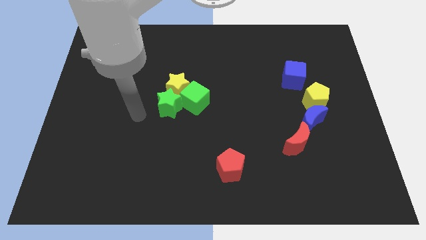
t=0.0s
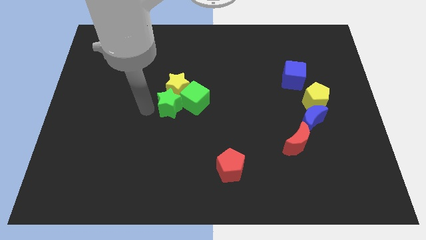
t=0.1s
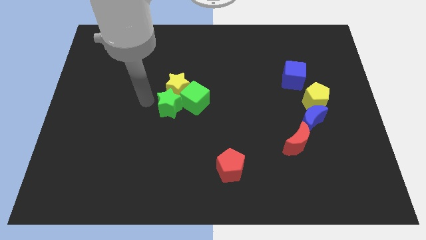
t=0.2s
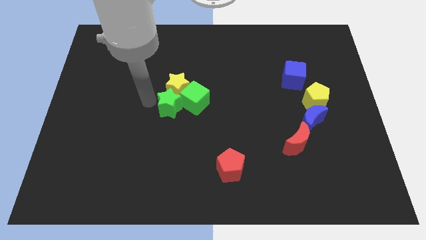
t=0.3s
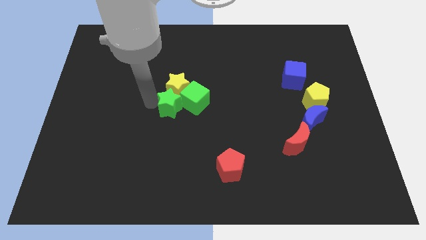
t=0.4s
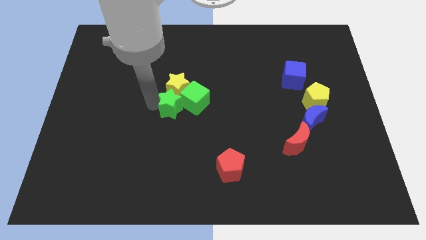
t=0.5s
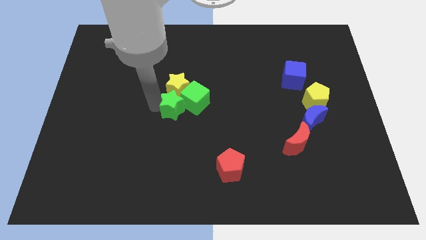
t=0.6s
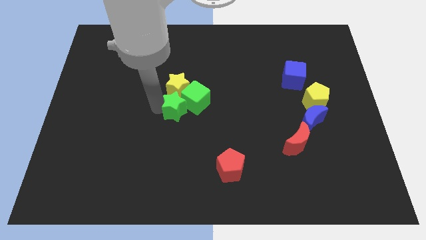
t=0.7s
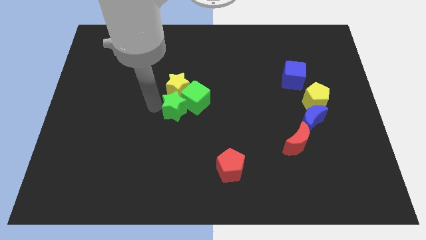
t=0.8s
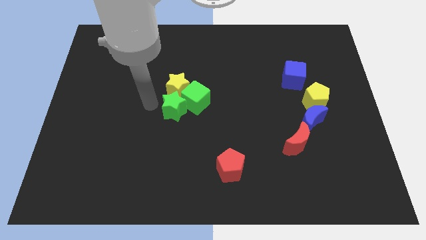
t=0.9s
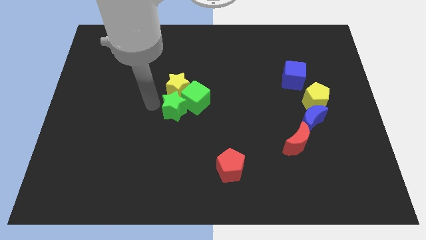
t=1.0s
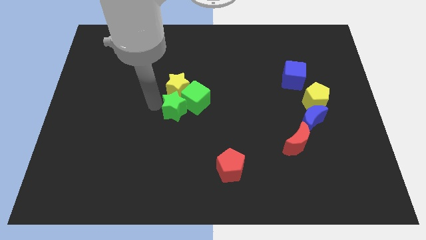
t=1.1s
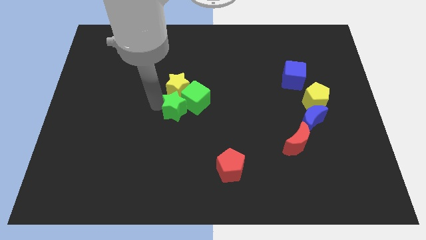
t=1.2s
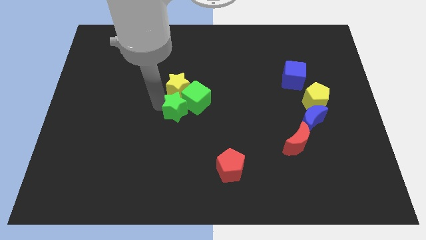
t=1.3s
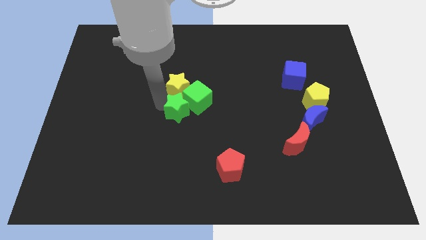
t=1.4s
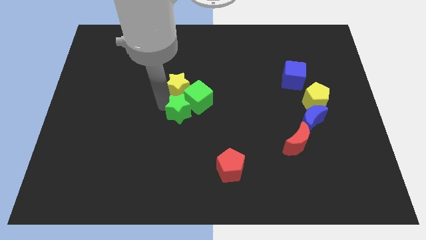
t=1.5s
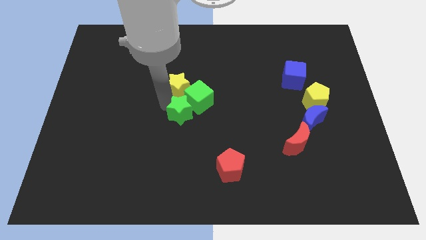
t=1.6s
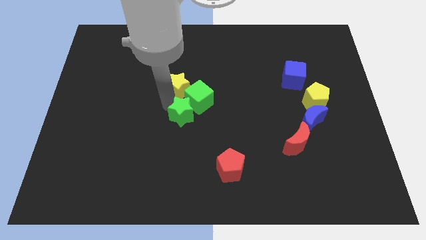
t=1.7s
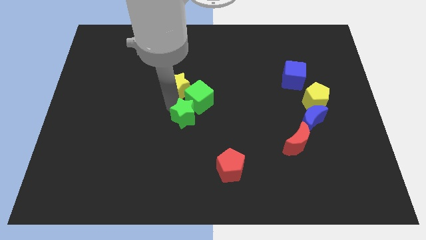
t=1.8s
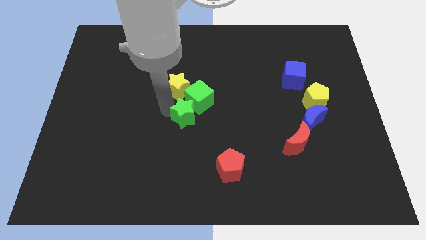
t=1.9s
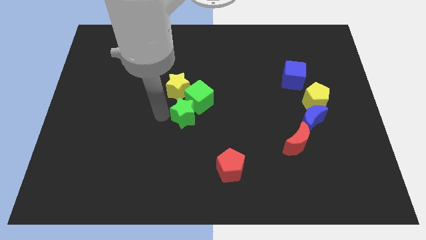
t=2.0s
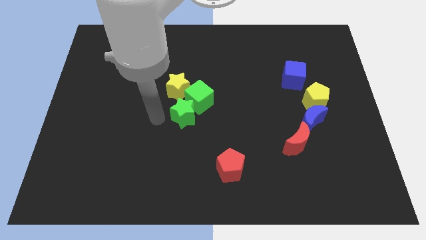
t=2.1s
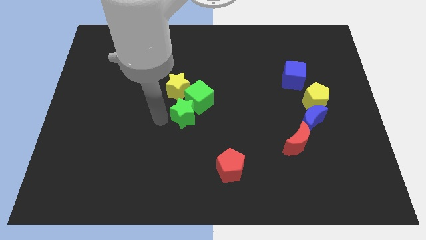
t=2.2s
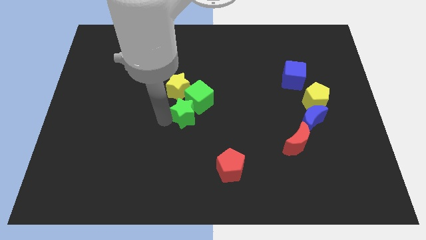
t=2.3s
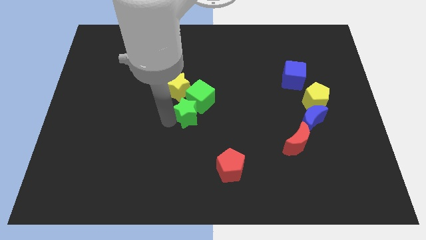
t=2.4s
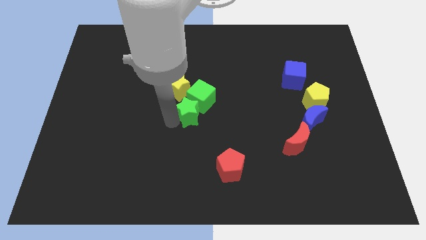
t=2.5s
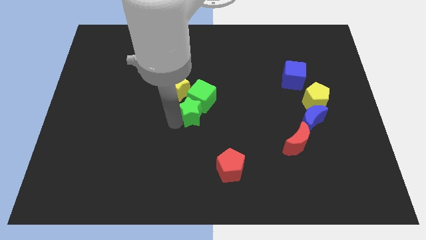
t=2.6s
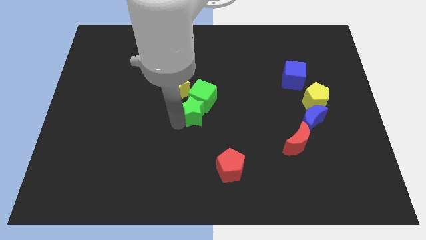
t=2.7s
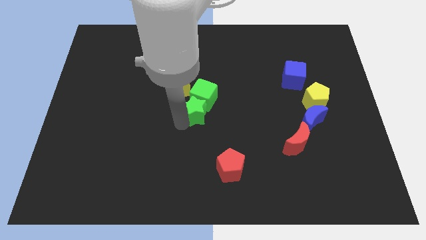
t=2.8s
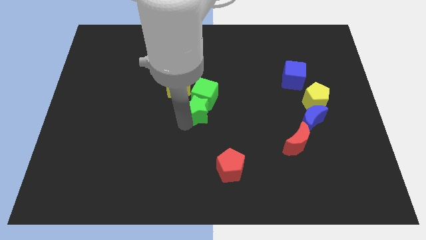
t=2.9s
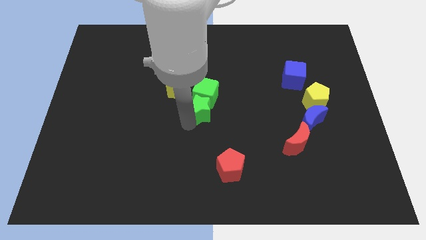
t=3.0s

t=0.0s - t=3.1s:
slightly slide the green star to the right

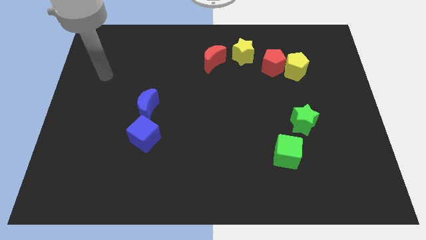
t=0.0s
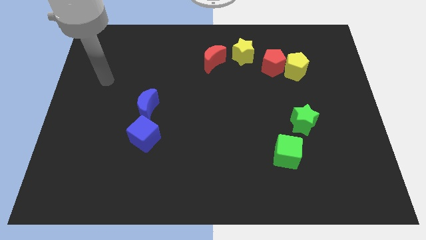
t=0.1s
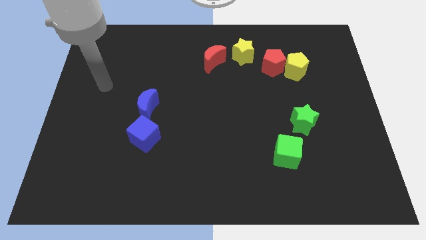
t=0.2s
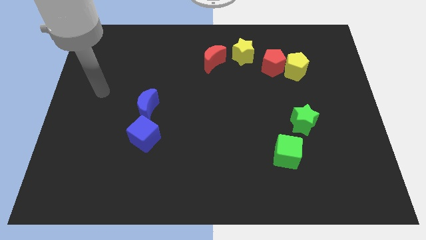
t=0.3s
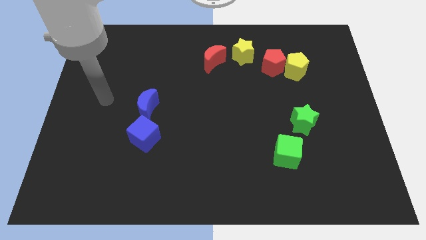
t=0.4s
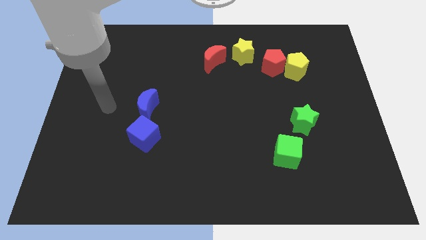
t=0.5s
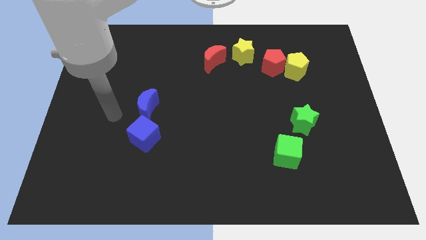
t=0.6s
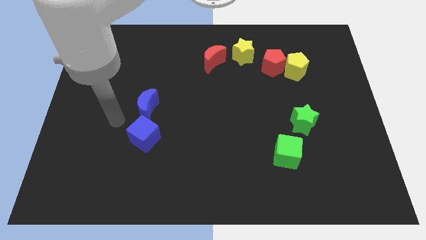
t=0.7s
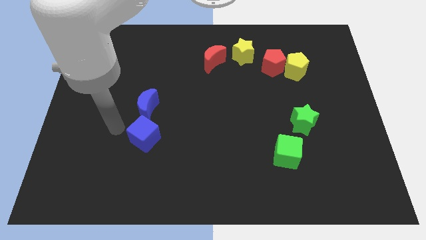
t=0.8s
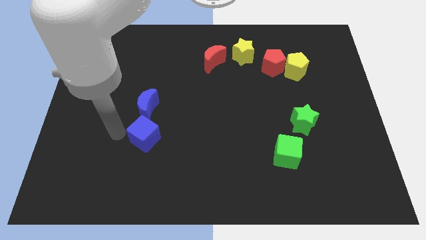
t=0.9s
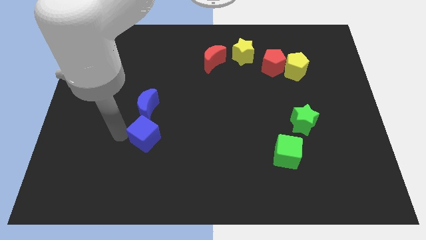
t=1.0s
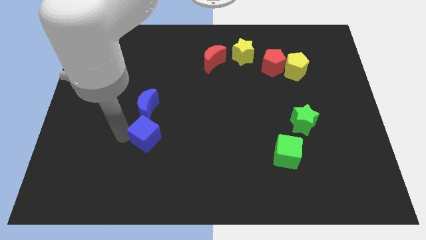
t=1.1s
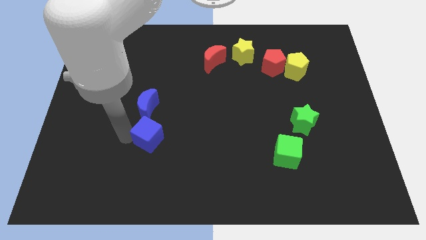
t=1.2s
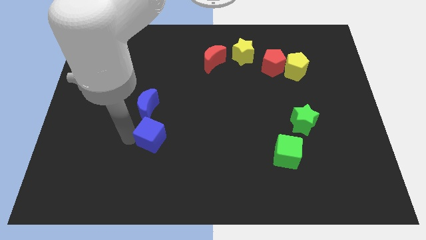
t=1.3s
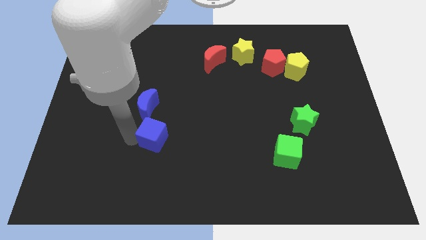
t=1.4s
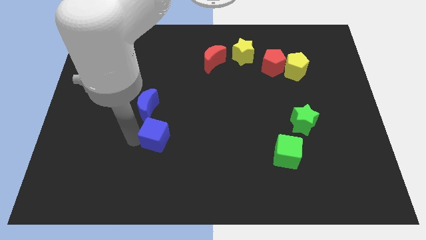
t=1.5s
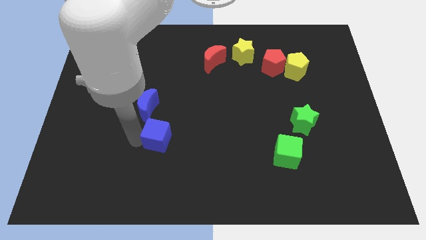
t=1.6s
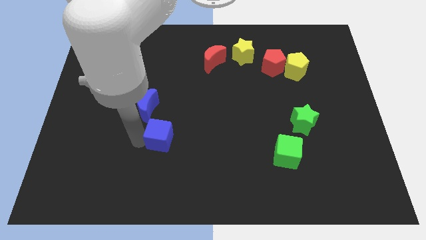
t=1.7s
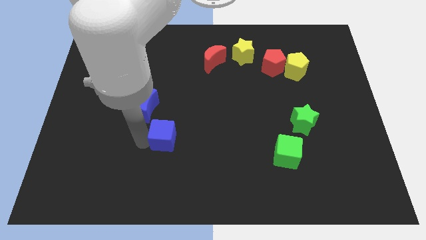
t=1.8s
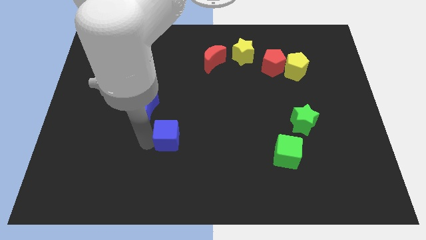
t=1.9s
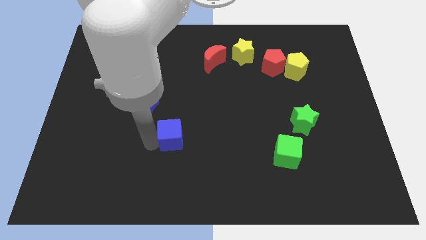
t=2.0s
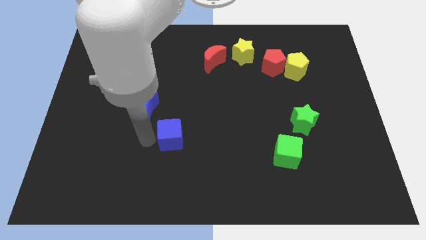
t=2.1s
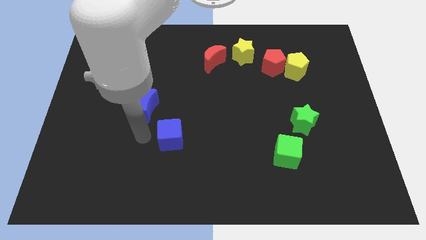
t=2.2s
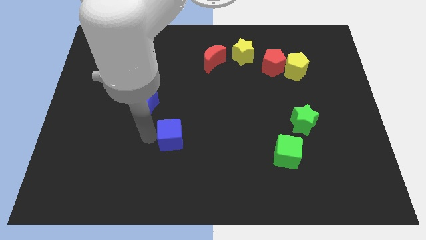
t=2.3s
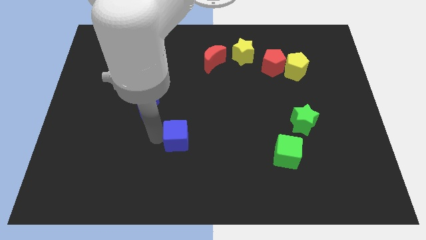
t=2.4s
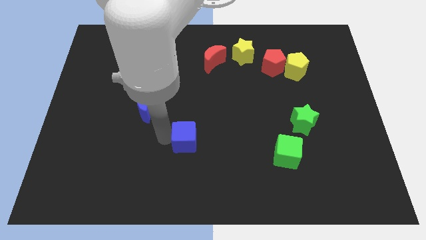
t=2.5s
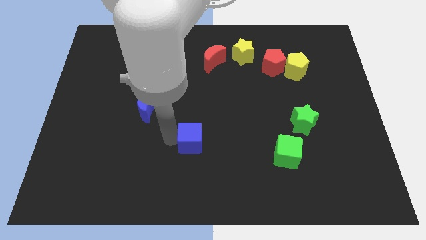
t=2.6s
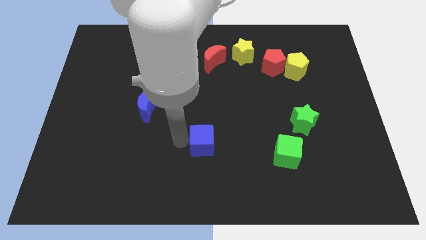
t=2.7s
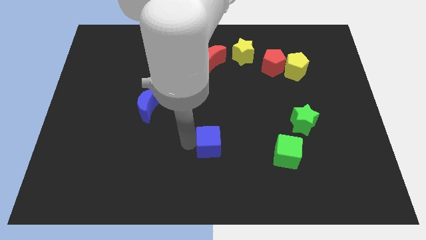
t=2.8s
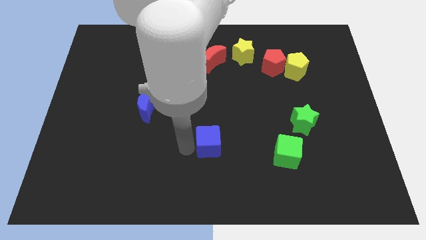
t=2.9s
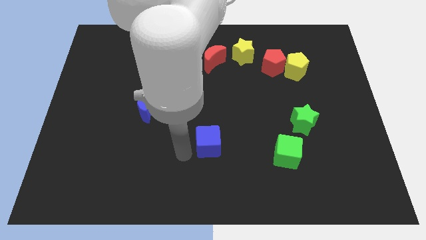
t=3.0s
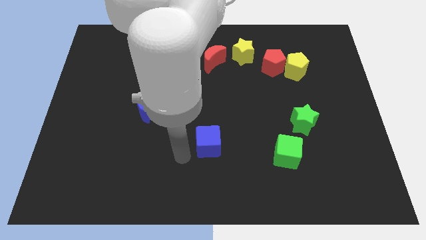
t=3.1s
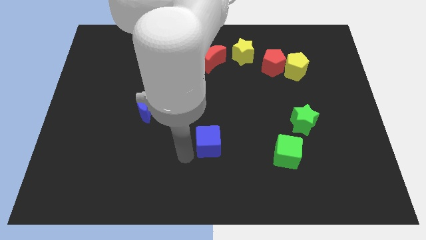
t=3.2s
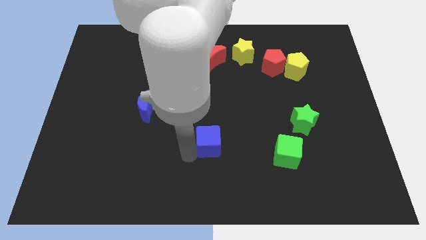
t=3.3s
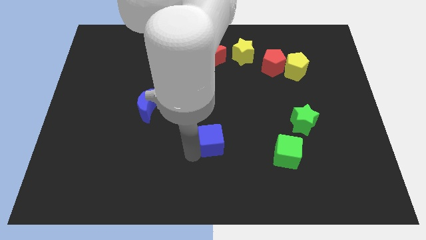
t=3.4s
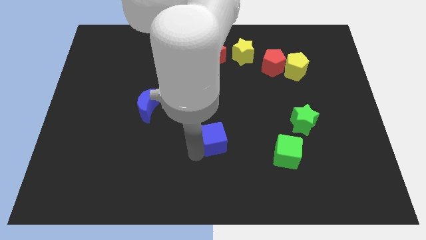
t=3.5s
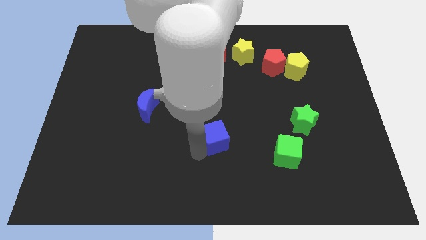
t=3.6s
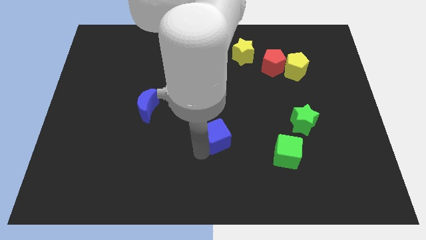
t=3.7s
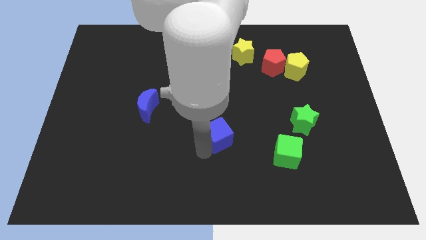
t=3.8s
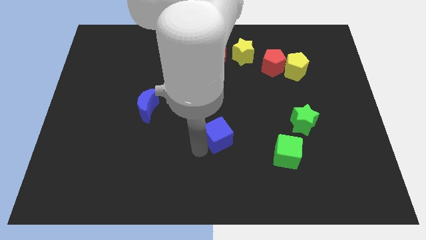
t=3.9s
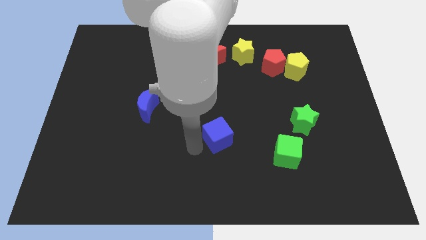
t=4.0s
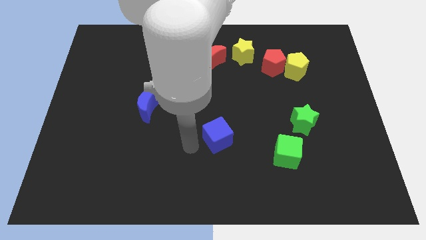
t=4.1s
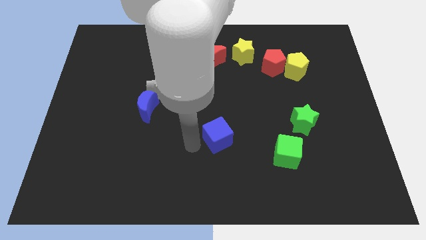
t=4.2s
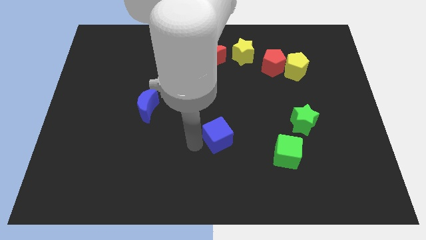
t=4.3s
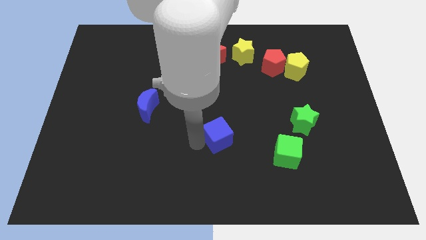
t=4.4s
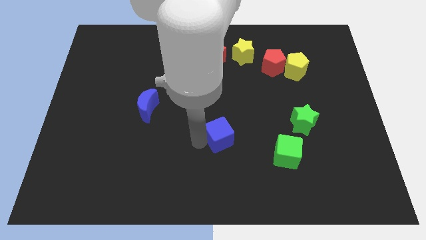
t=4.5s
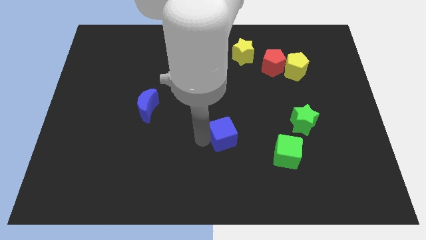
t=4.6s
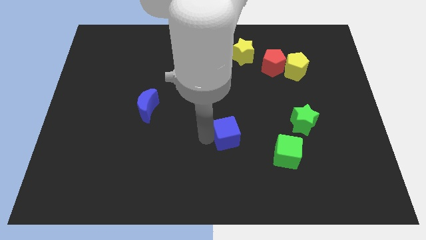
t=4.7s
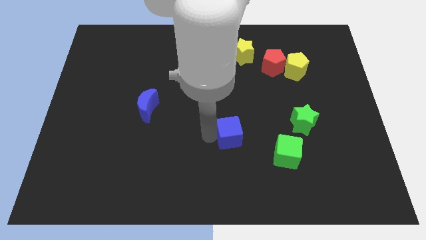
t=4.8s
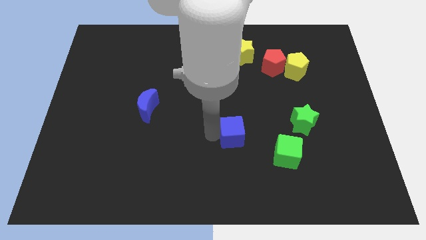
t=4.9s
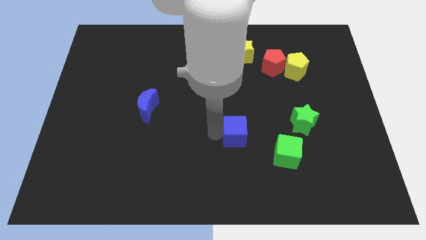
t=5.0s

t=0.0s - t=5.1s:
move the blue cube right
